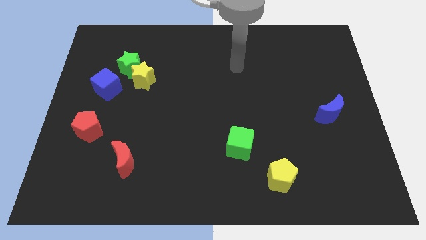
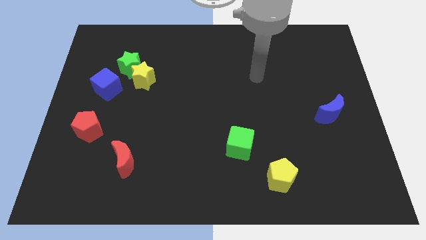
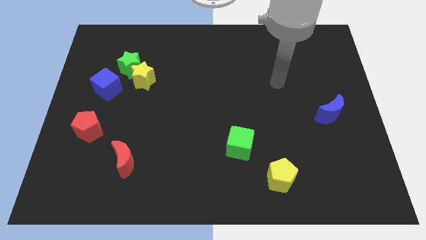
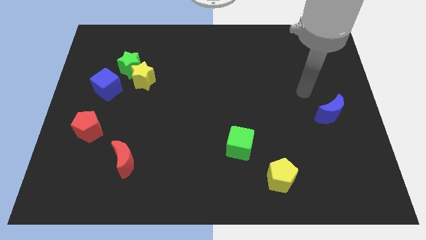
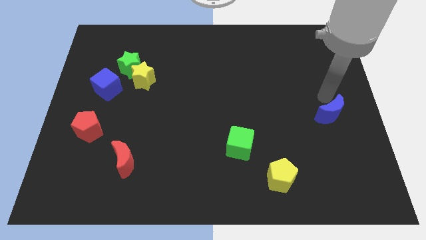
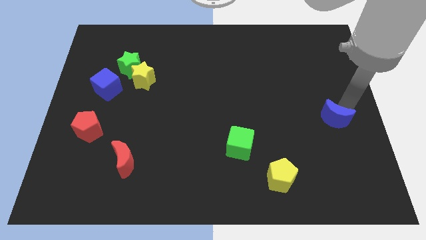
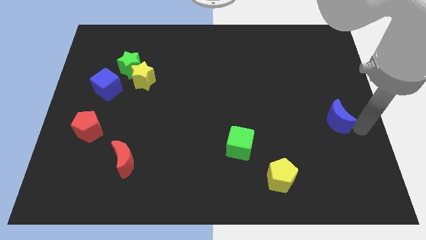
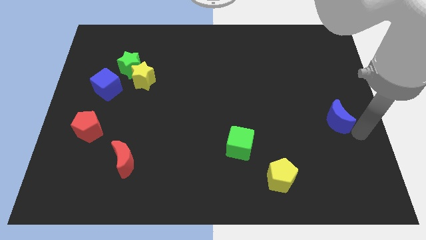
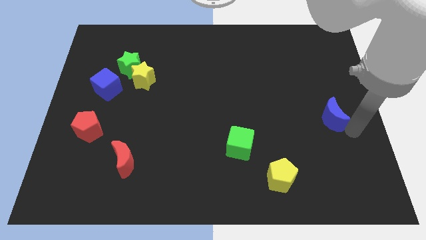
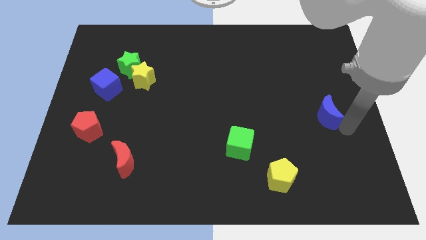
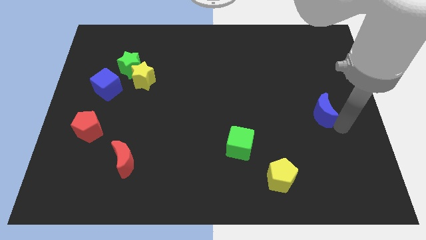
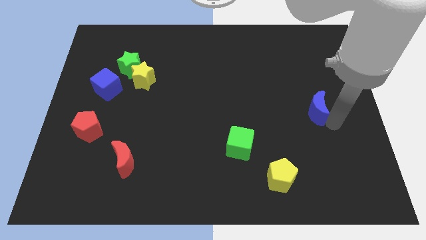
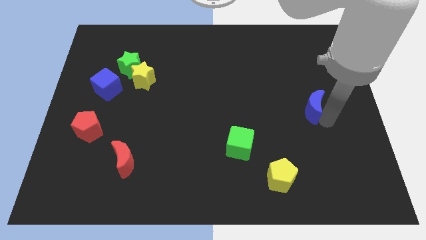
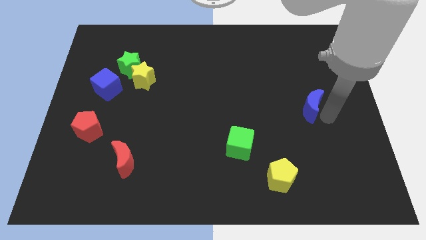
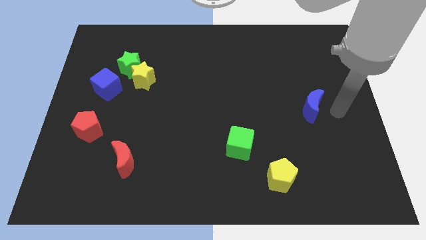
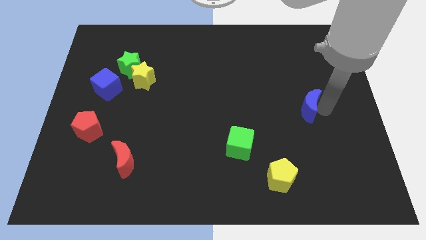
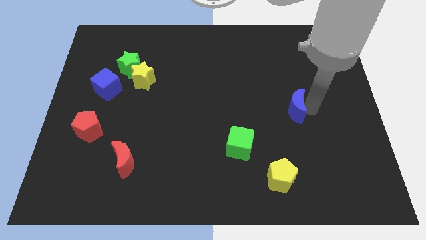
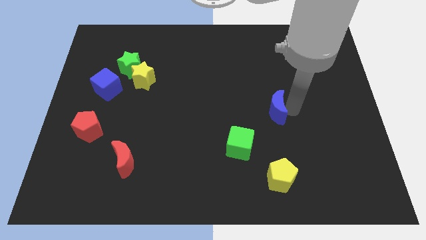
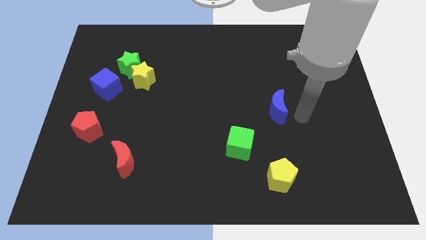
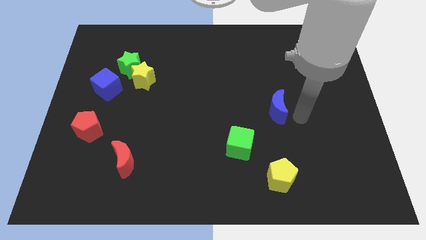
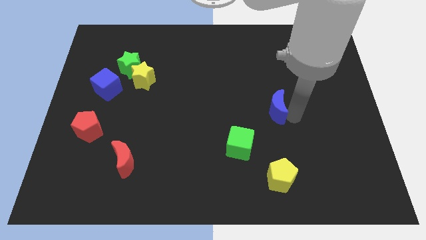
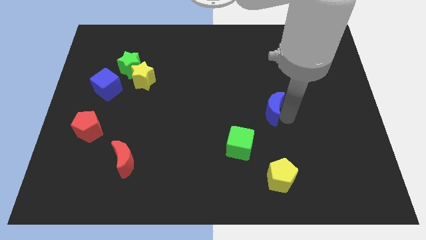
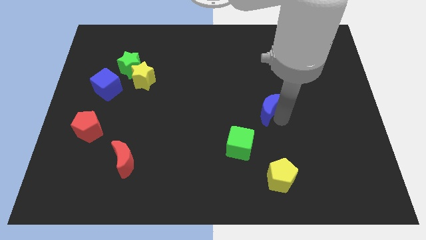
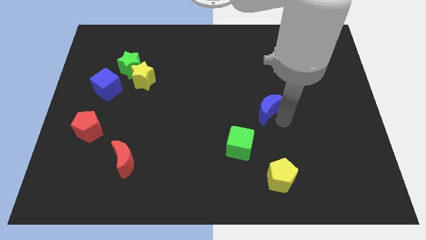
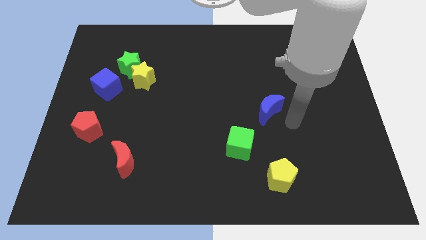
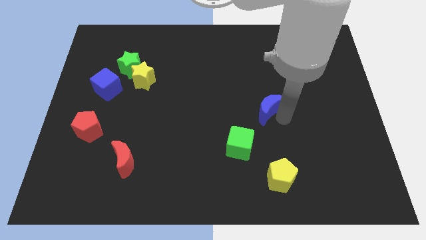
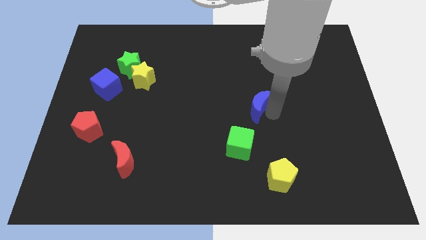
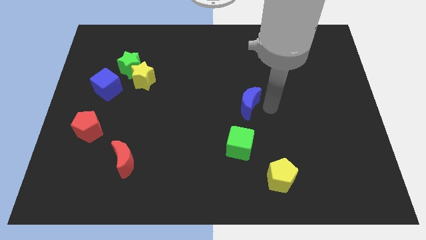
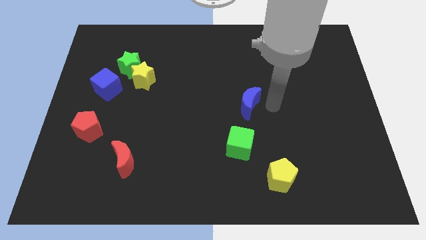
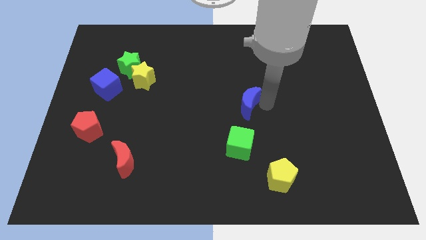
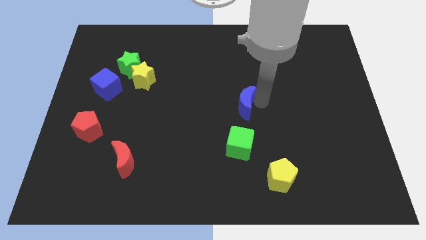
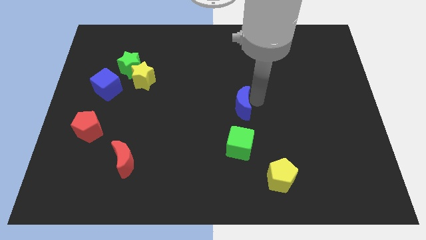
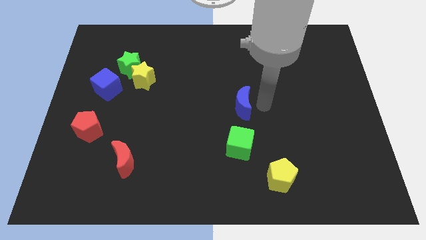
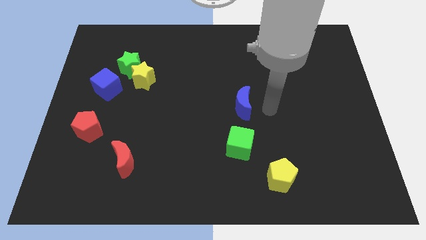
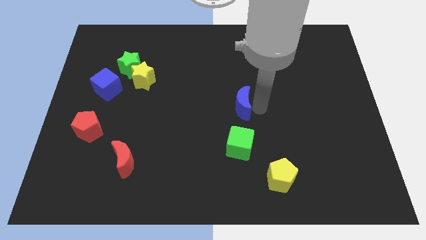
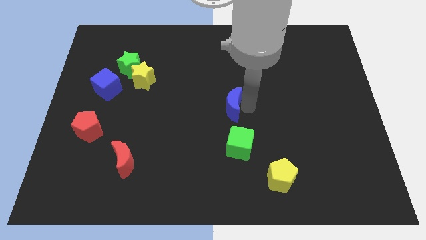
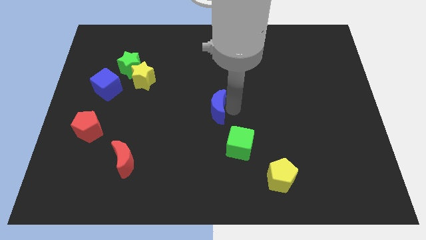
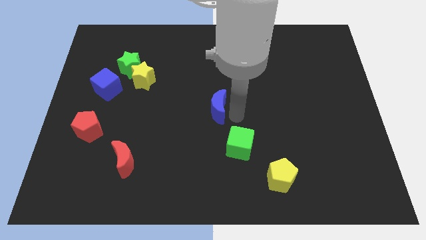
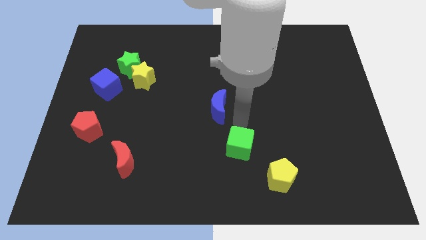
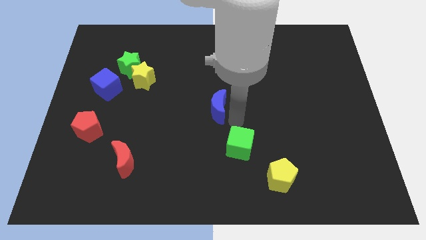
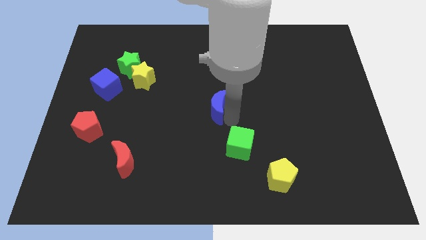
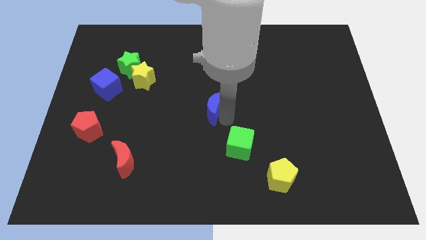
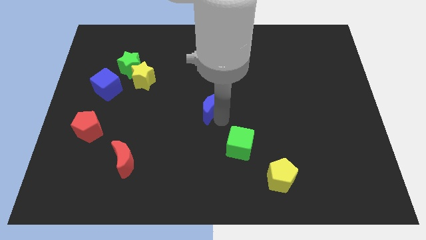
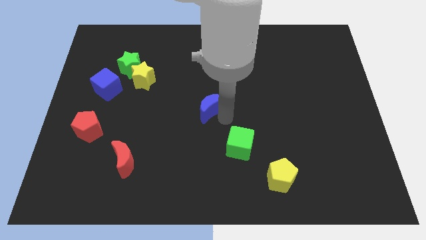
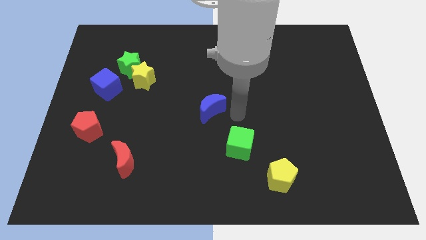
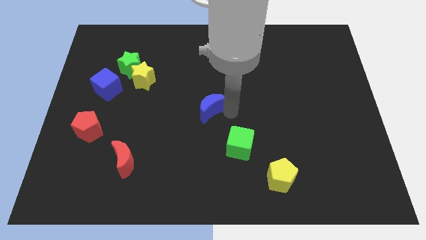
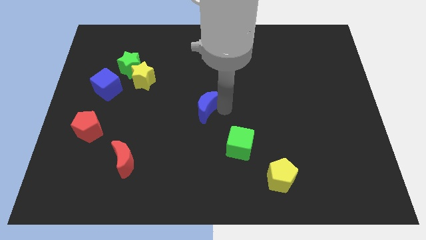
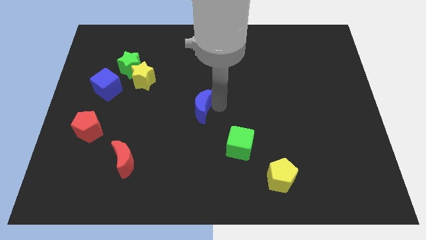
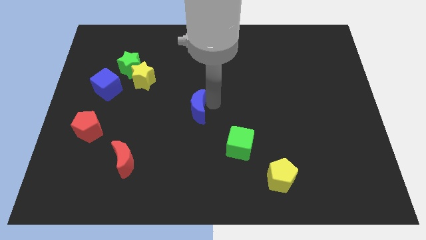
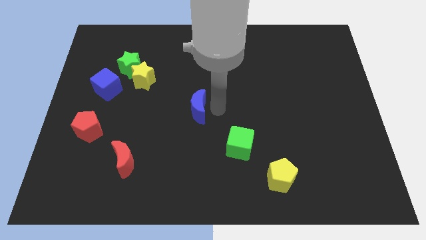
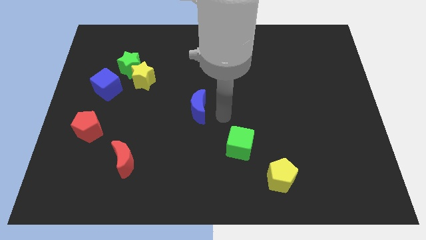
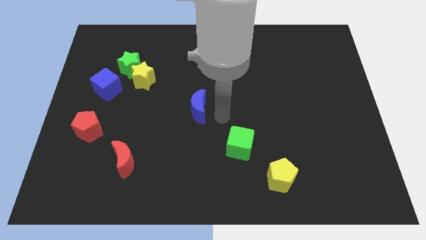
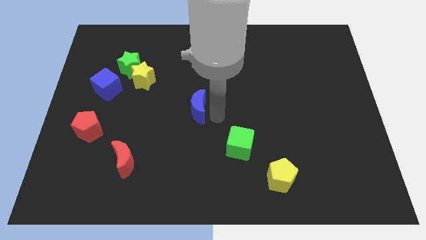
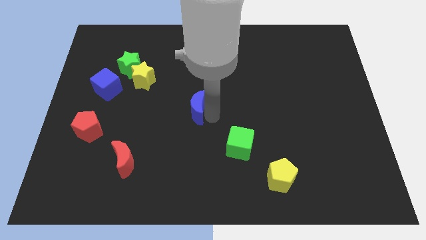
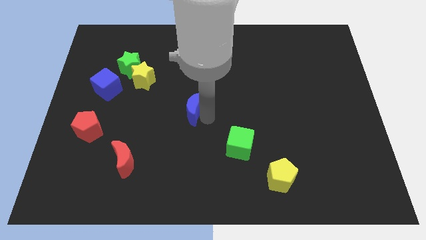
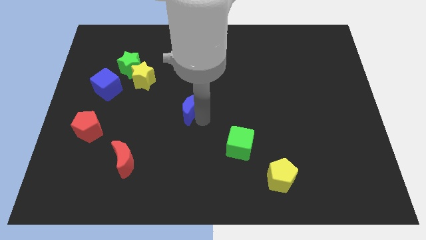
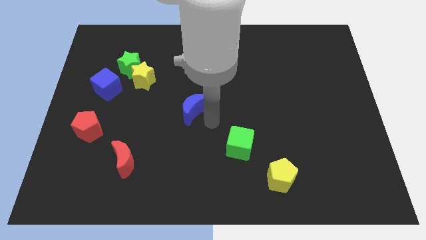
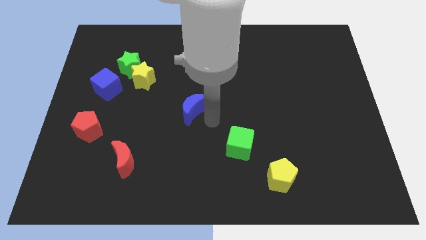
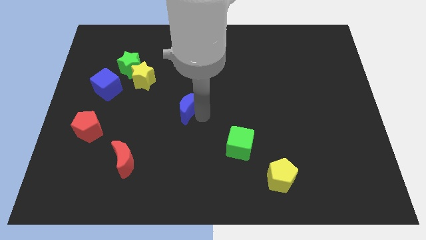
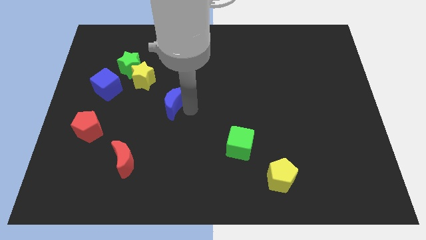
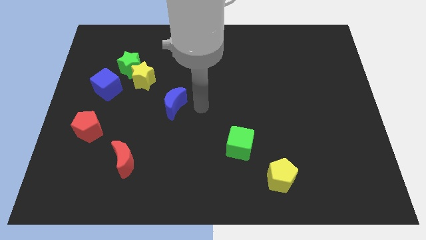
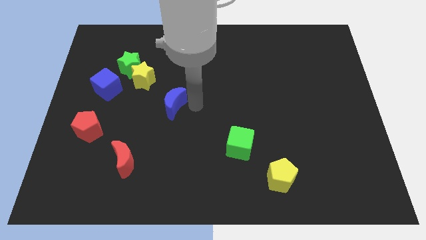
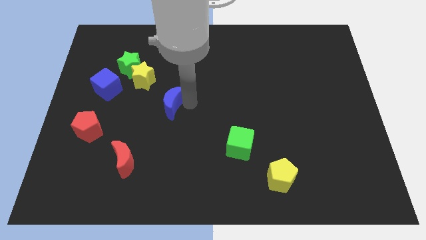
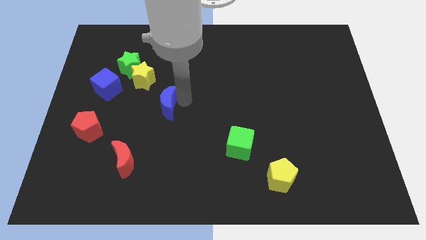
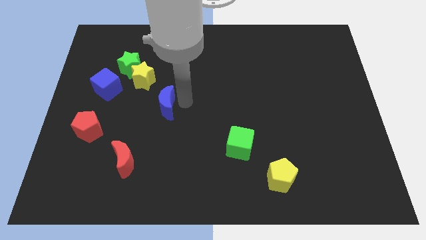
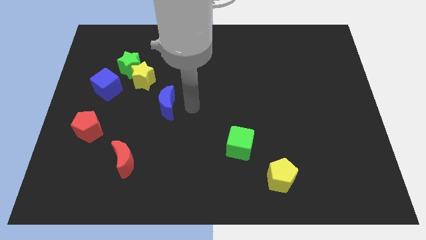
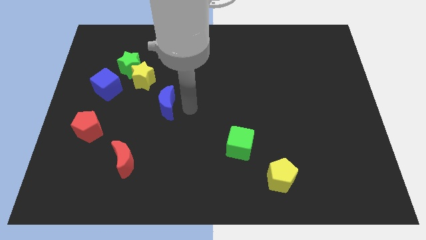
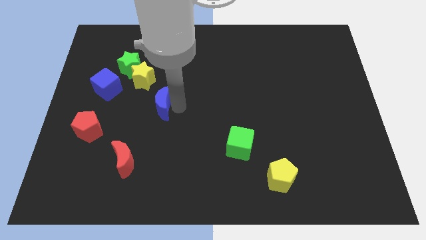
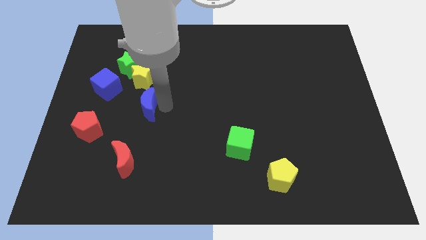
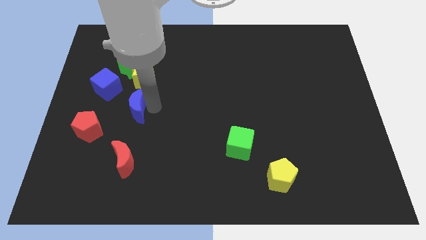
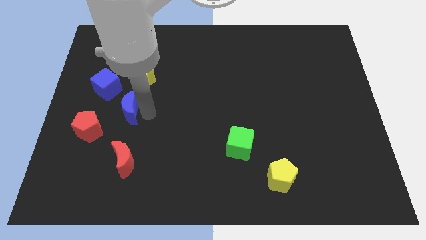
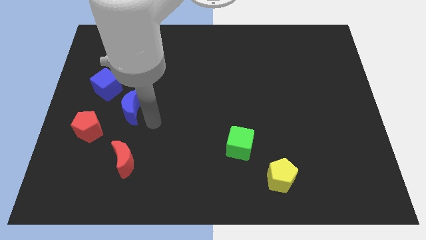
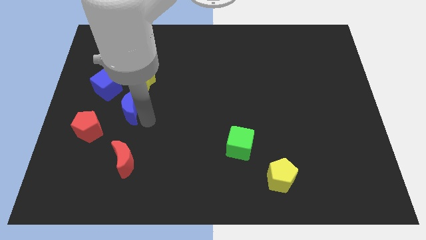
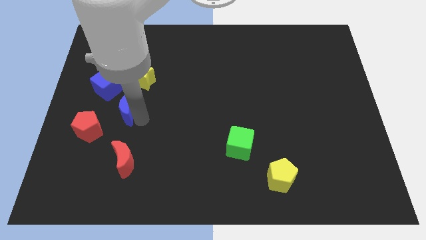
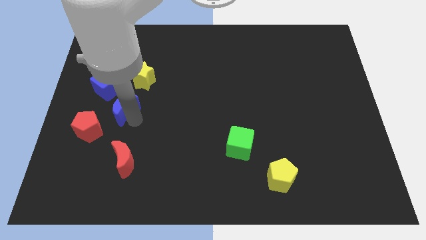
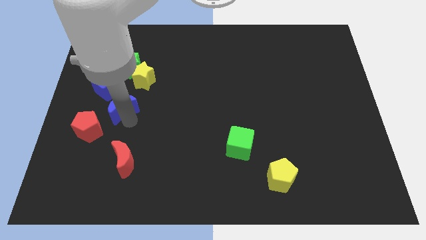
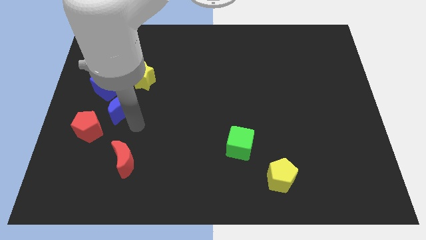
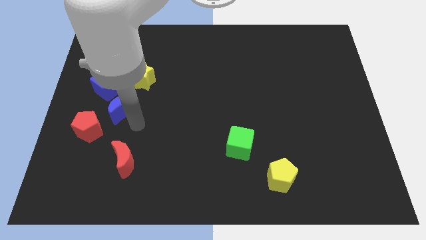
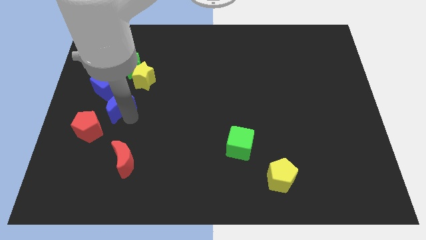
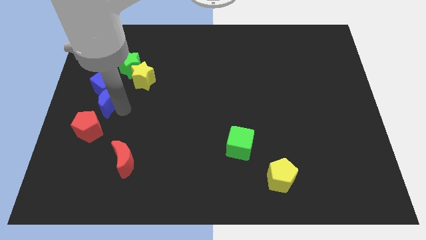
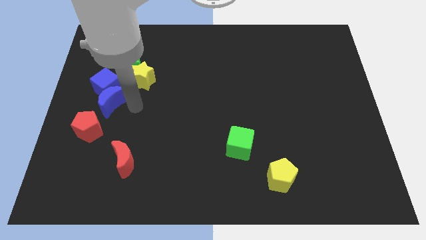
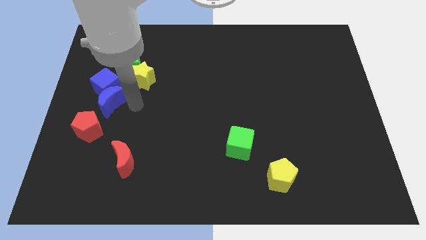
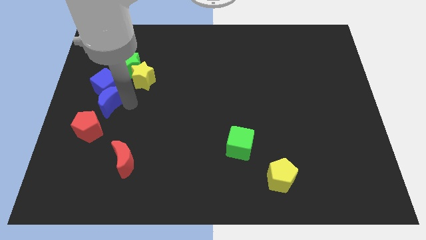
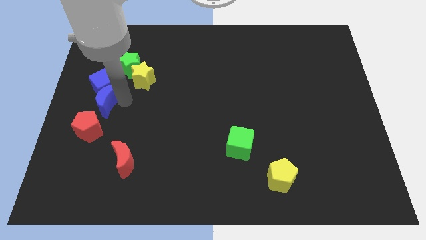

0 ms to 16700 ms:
put the blue moon to the left side
